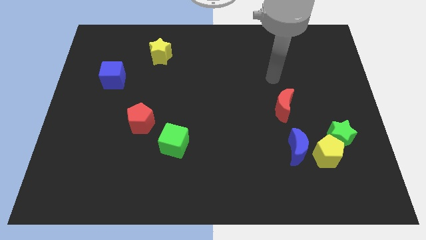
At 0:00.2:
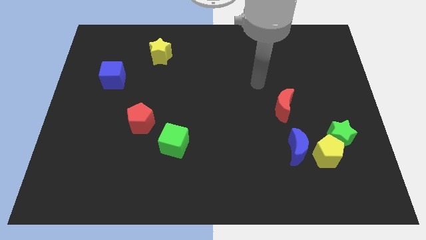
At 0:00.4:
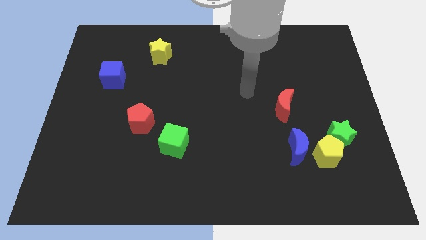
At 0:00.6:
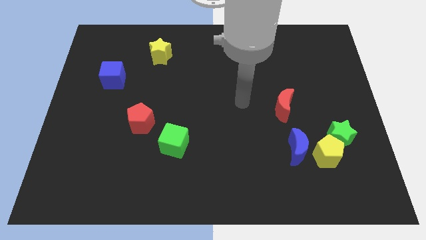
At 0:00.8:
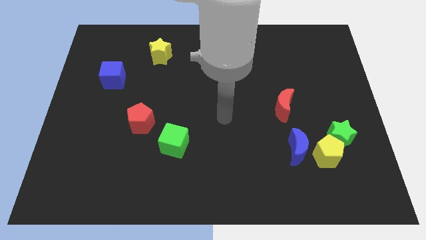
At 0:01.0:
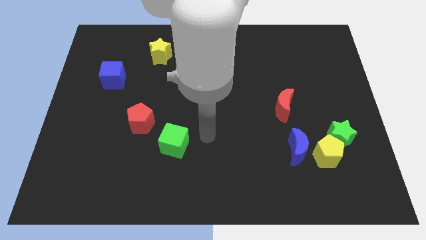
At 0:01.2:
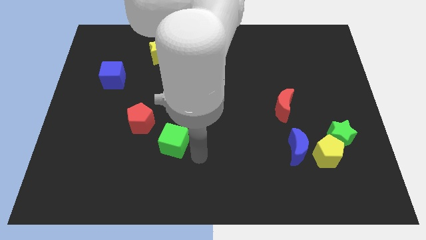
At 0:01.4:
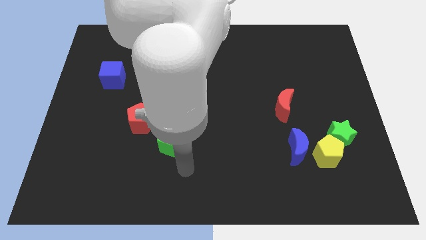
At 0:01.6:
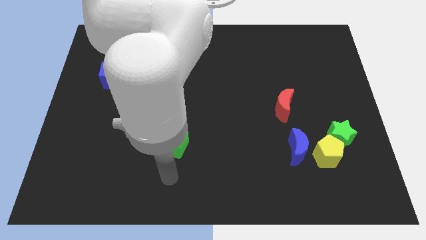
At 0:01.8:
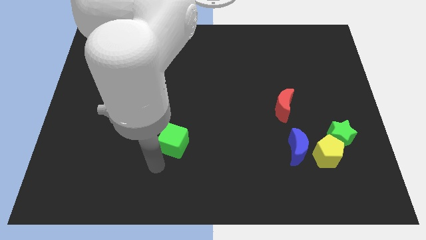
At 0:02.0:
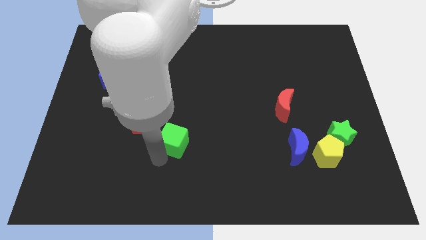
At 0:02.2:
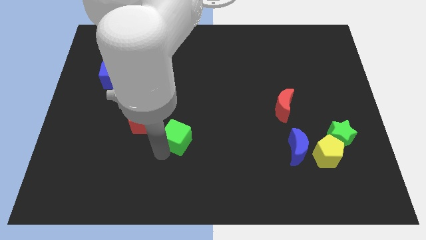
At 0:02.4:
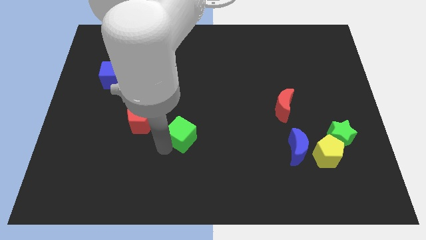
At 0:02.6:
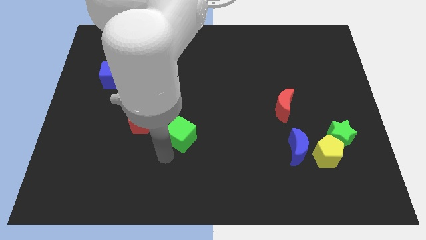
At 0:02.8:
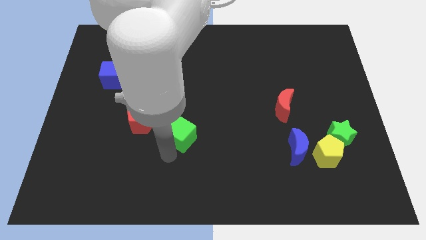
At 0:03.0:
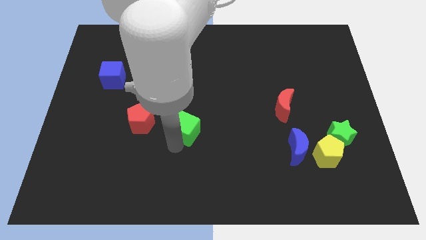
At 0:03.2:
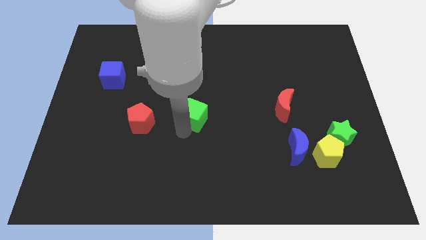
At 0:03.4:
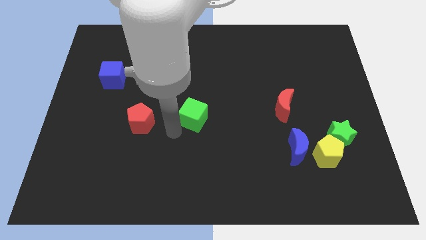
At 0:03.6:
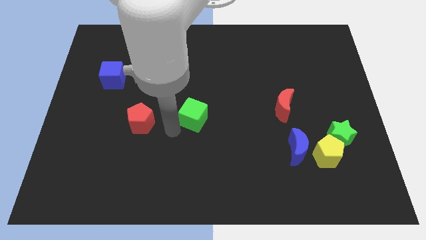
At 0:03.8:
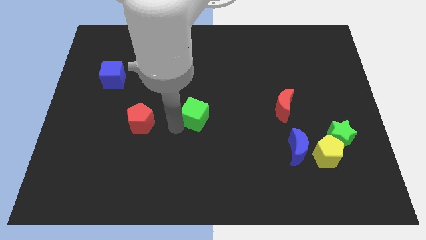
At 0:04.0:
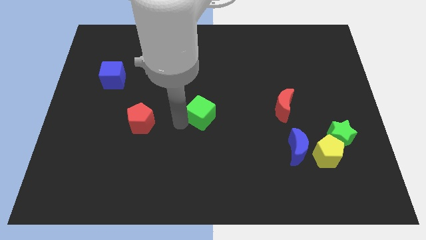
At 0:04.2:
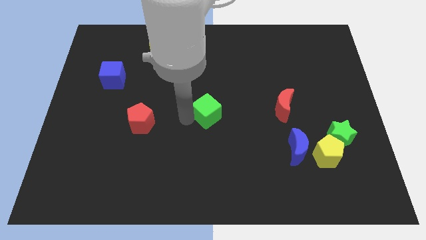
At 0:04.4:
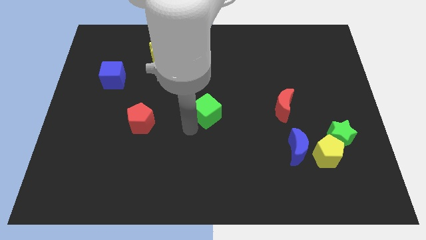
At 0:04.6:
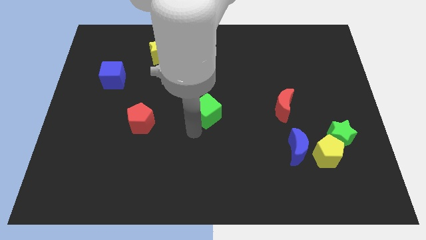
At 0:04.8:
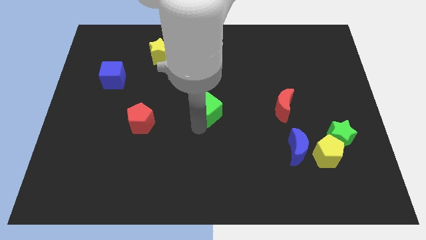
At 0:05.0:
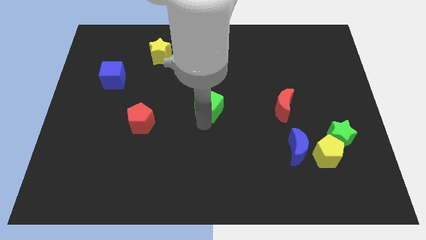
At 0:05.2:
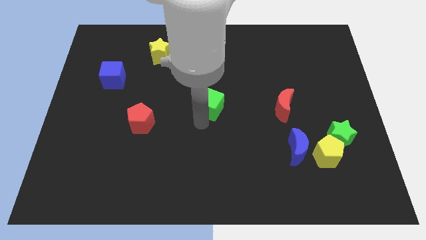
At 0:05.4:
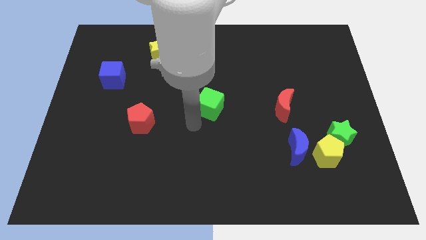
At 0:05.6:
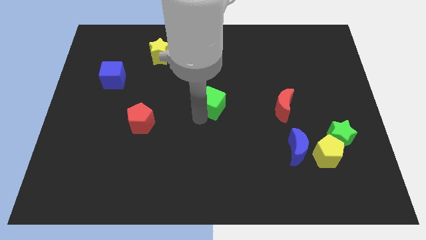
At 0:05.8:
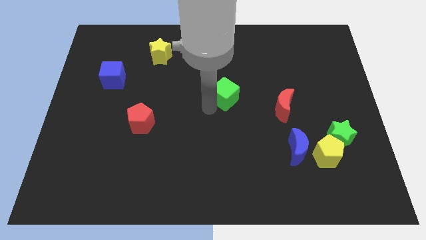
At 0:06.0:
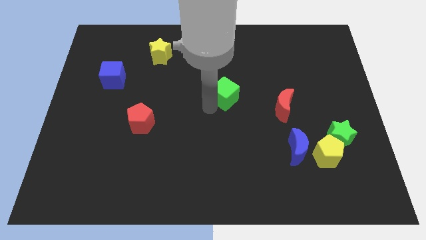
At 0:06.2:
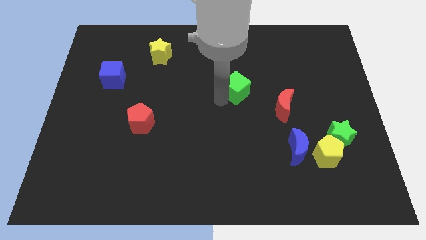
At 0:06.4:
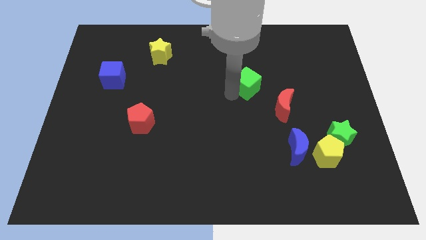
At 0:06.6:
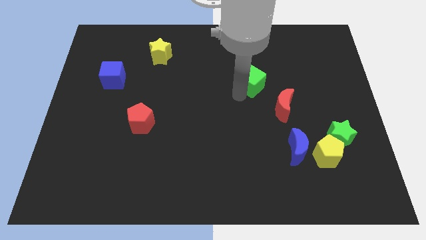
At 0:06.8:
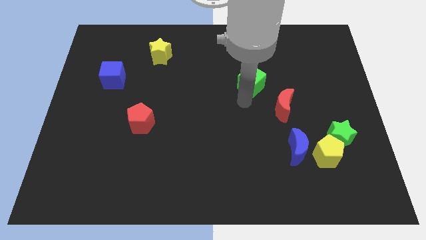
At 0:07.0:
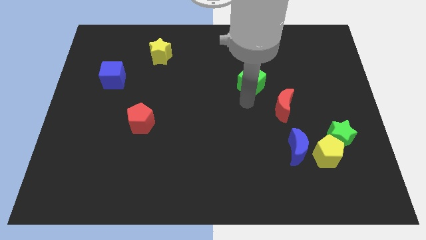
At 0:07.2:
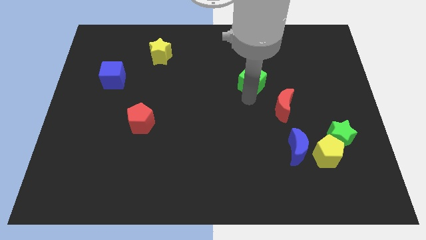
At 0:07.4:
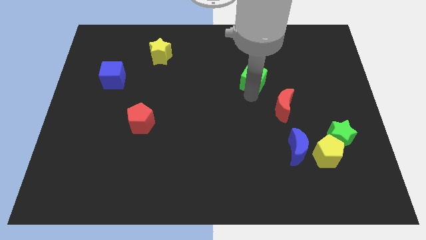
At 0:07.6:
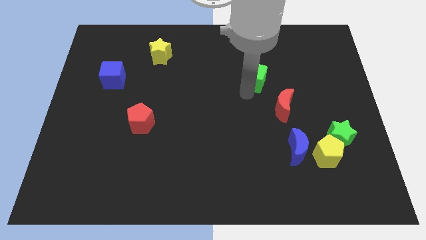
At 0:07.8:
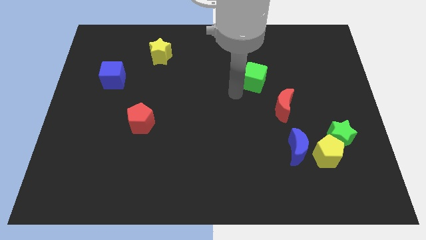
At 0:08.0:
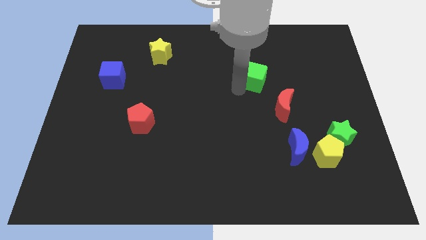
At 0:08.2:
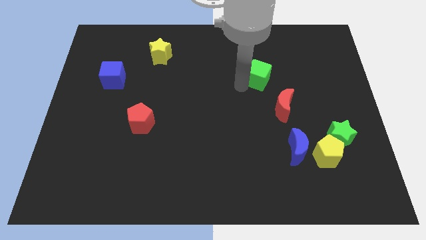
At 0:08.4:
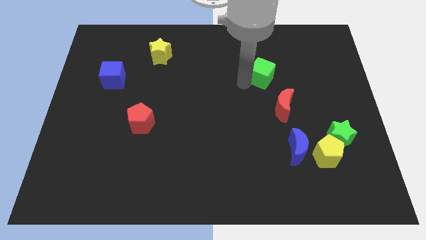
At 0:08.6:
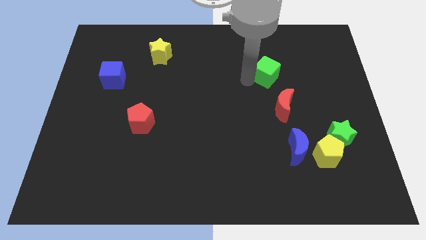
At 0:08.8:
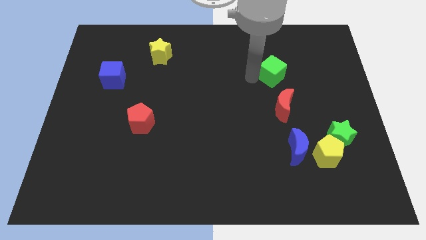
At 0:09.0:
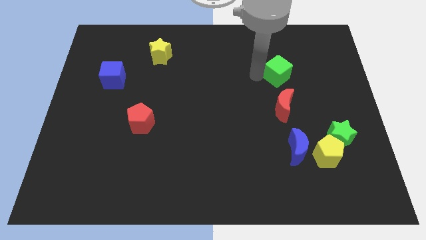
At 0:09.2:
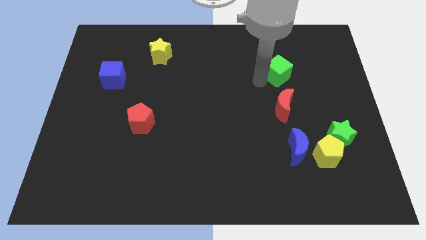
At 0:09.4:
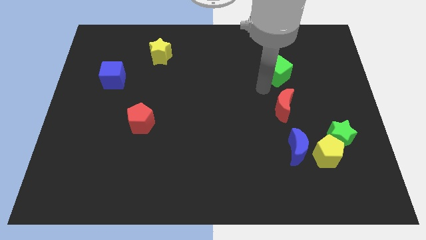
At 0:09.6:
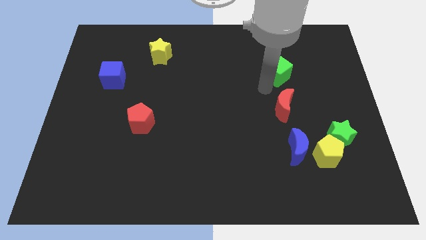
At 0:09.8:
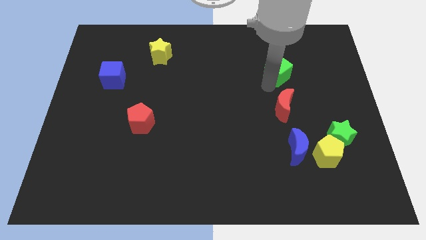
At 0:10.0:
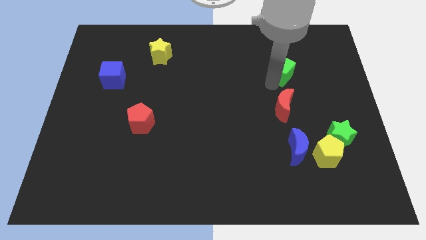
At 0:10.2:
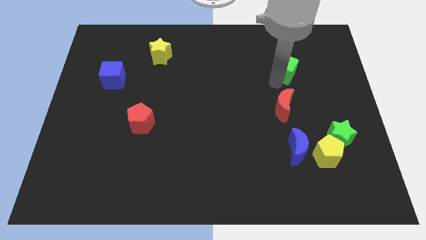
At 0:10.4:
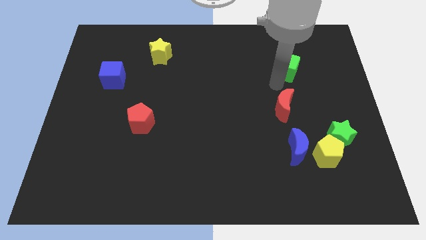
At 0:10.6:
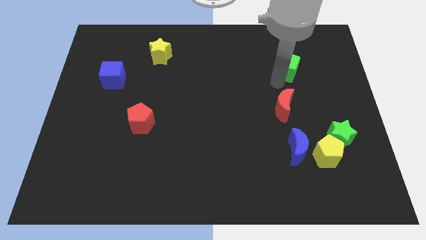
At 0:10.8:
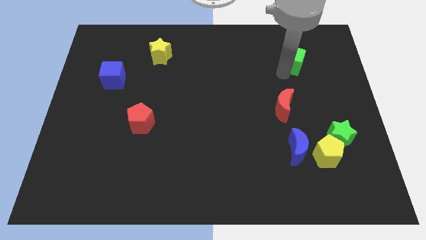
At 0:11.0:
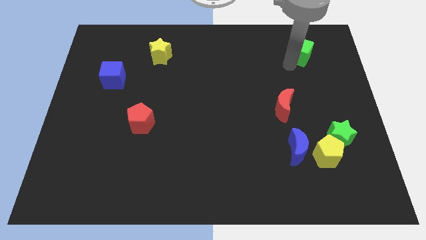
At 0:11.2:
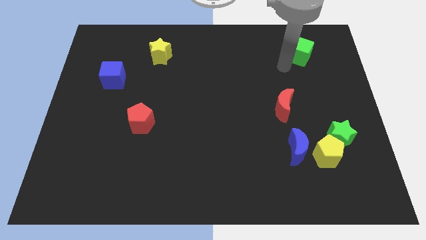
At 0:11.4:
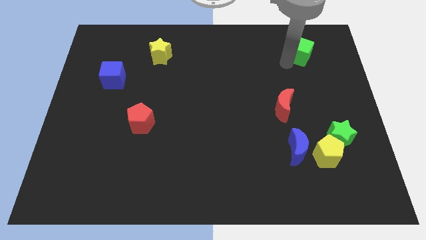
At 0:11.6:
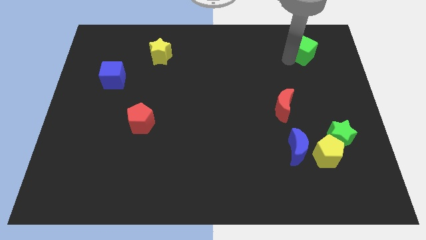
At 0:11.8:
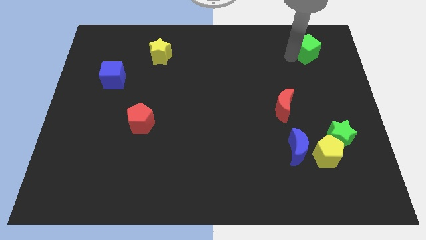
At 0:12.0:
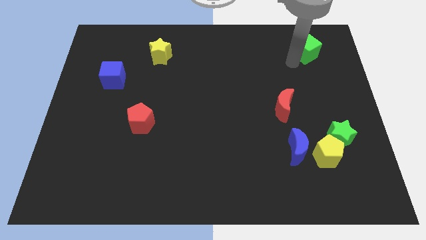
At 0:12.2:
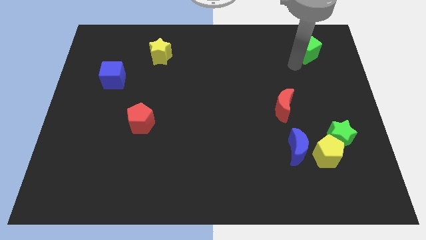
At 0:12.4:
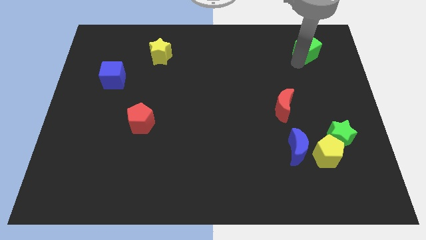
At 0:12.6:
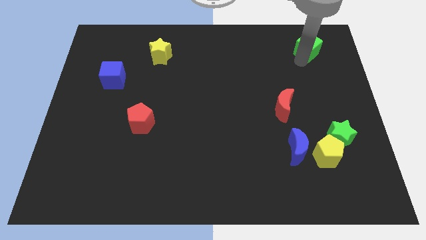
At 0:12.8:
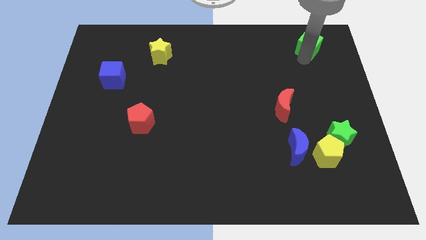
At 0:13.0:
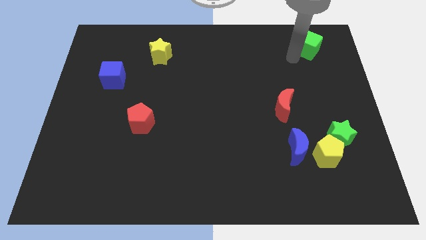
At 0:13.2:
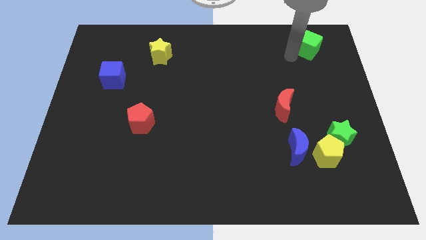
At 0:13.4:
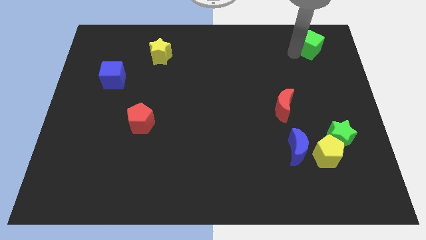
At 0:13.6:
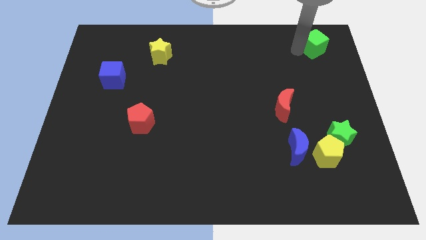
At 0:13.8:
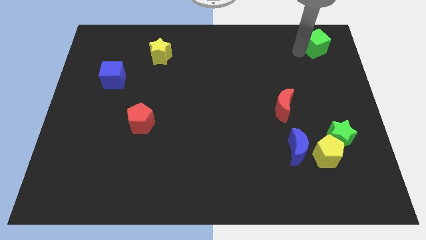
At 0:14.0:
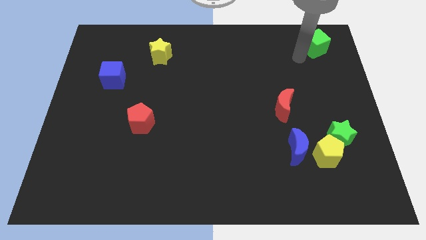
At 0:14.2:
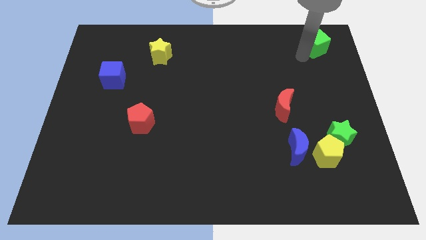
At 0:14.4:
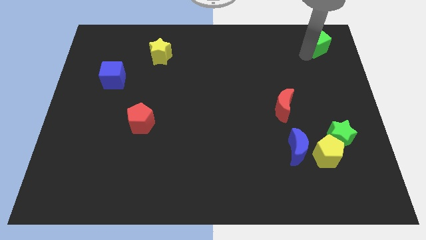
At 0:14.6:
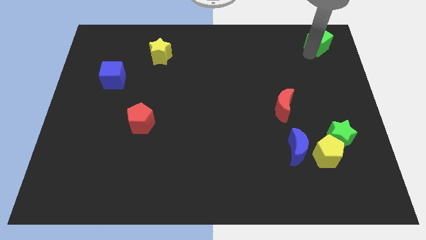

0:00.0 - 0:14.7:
move the green cube to the upper right corner
